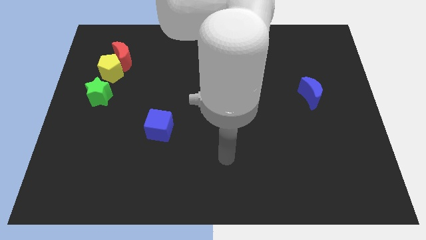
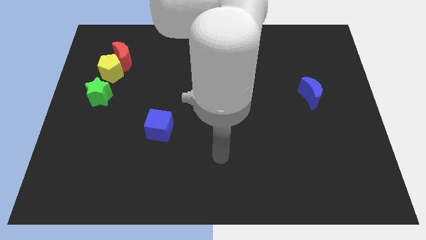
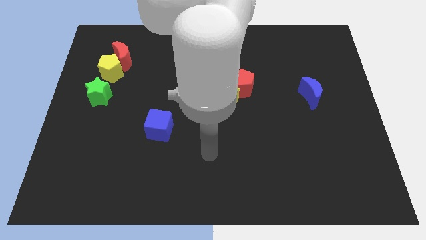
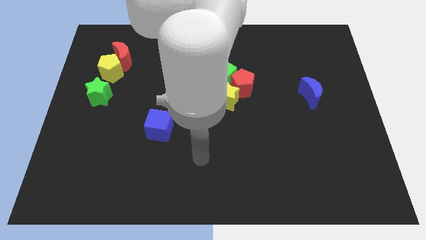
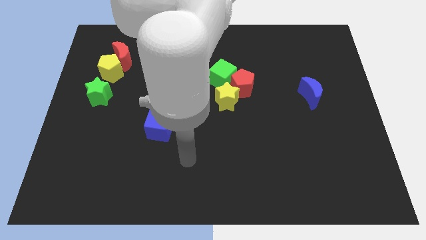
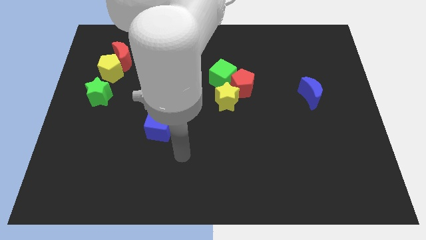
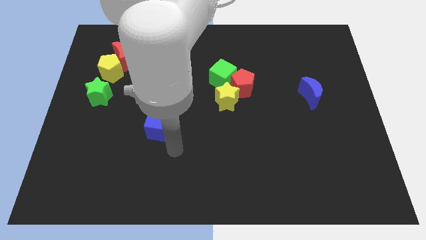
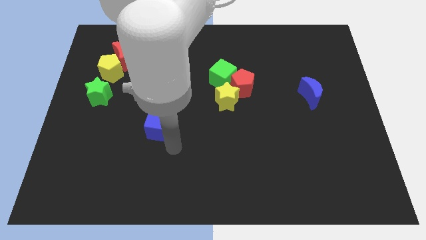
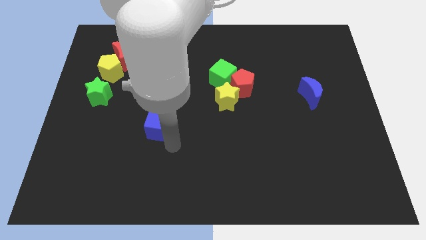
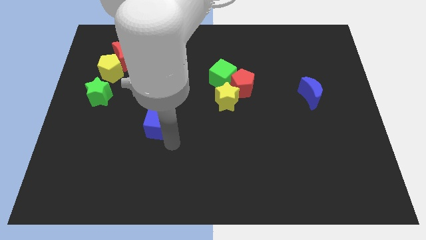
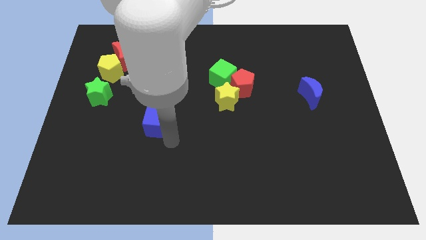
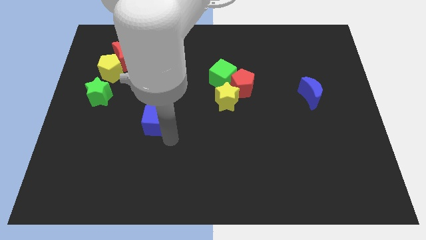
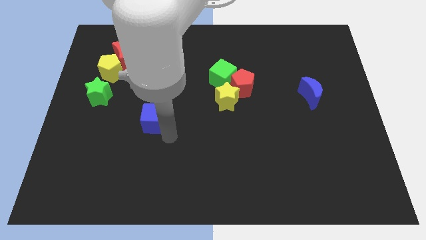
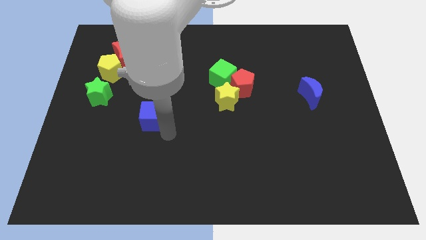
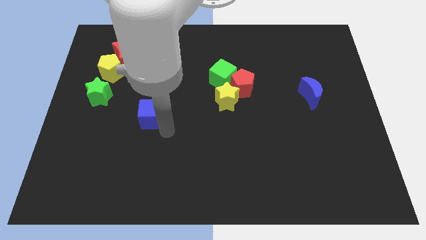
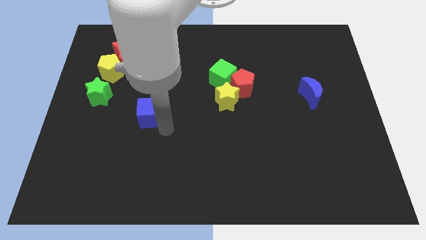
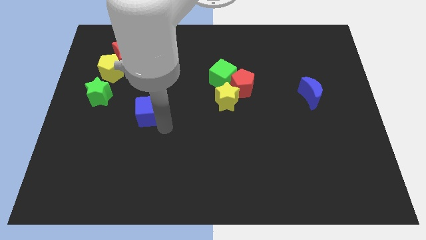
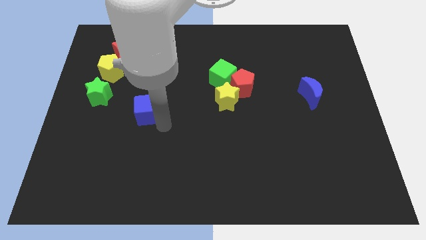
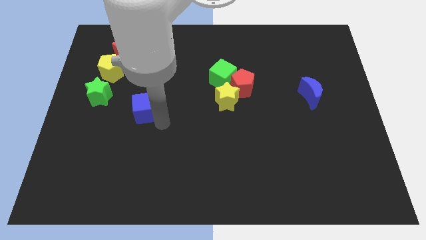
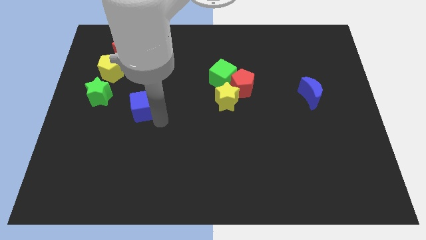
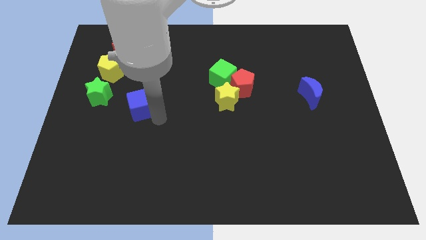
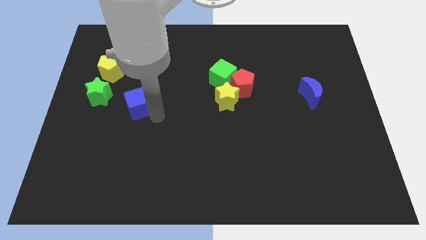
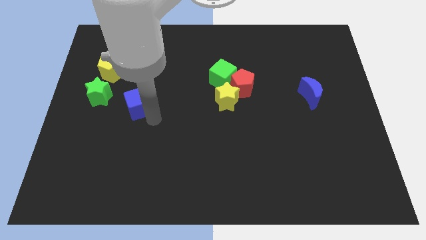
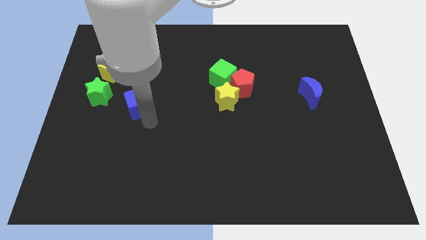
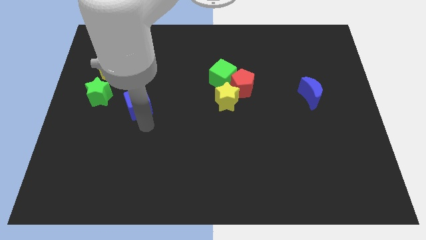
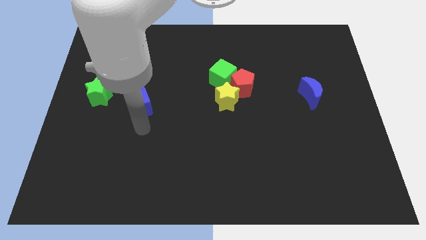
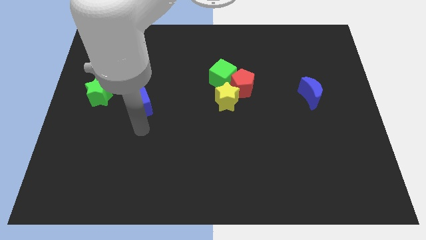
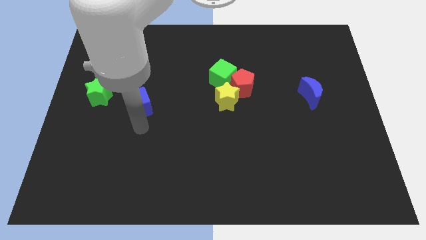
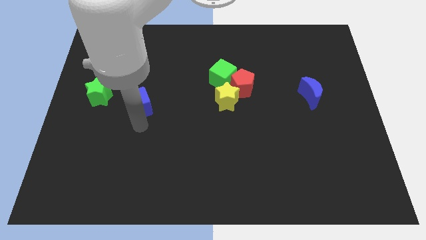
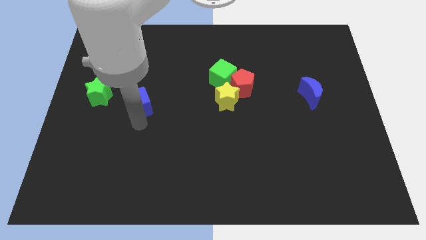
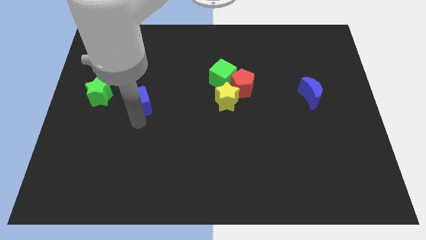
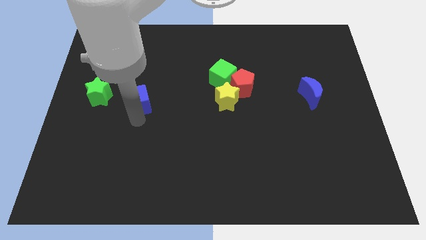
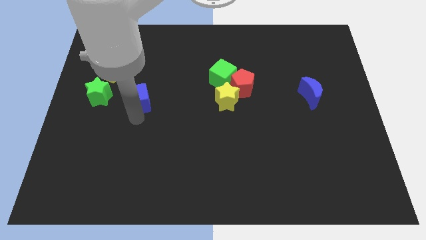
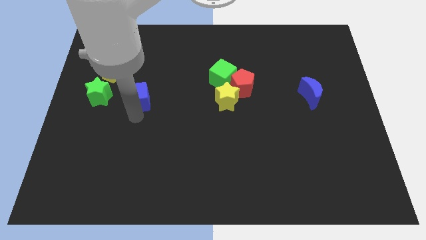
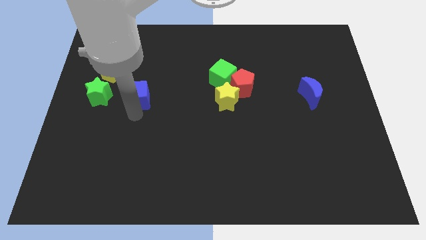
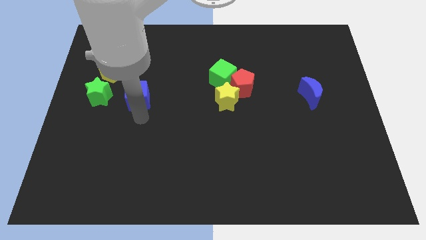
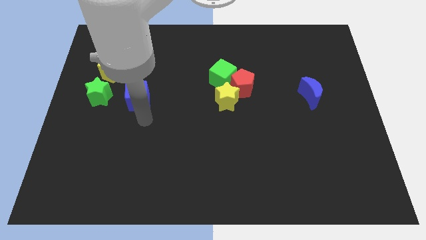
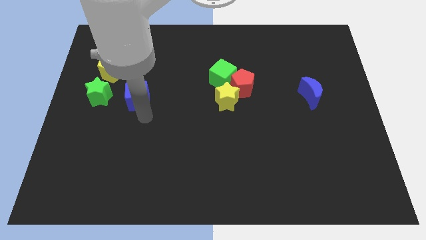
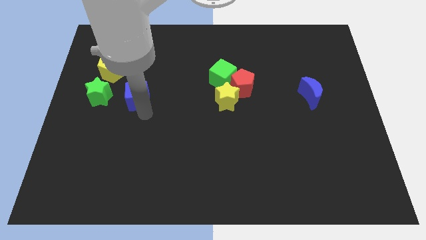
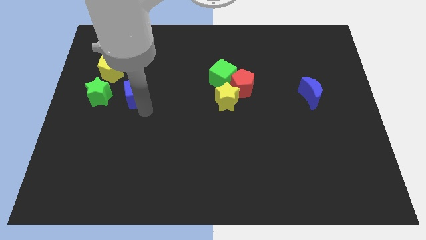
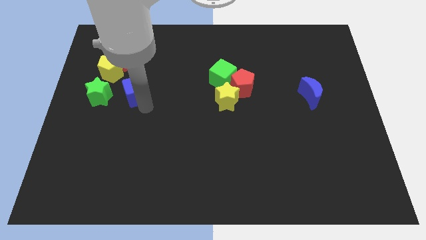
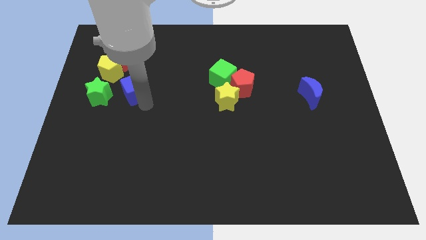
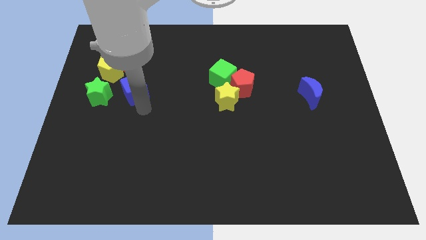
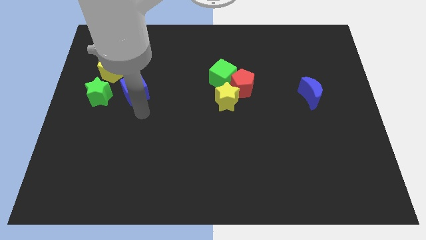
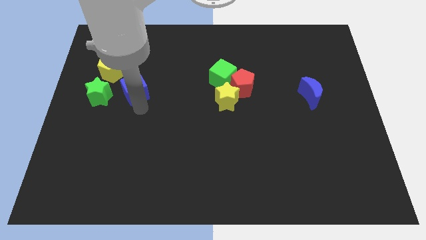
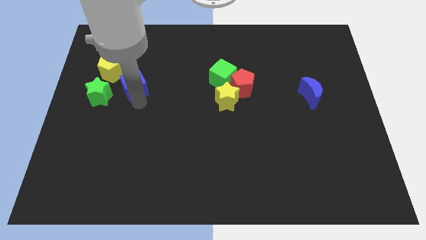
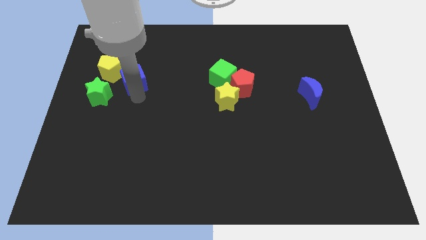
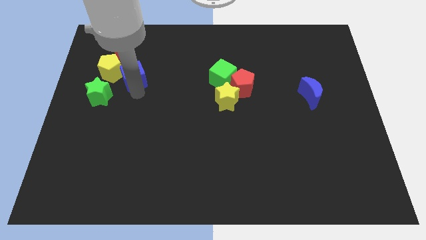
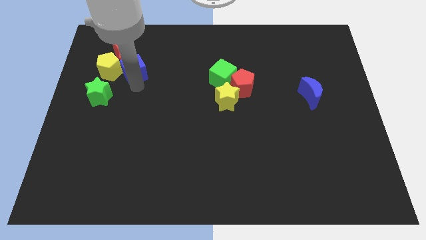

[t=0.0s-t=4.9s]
slide the blue cube to the red moon

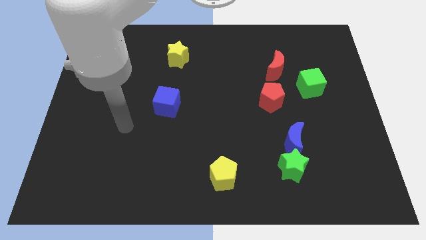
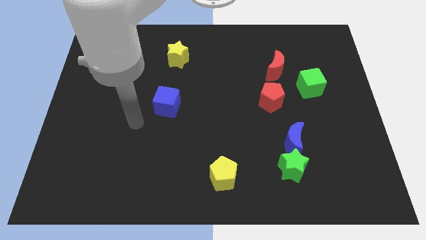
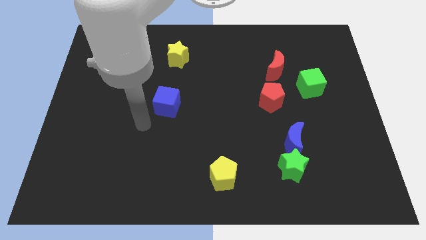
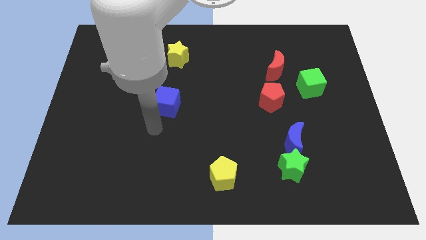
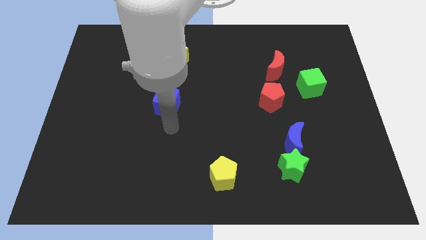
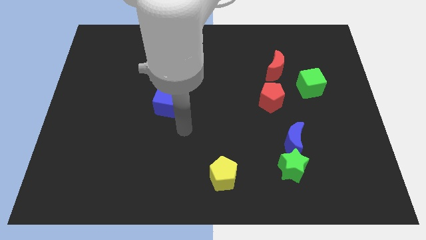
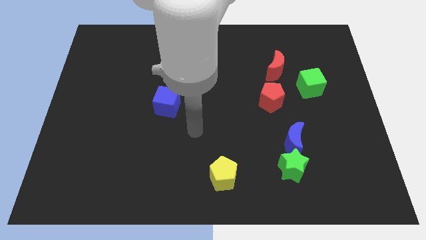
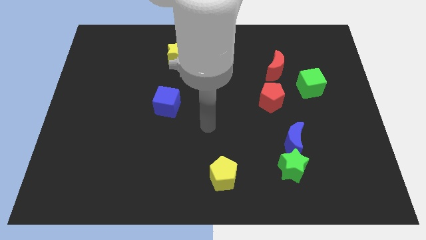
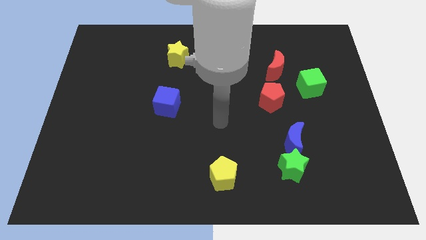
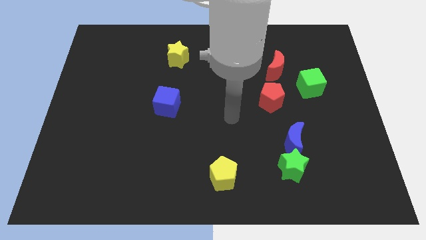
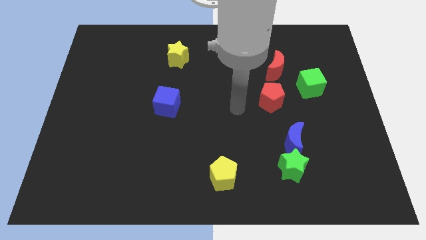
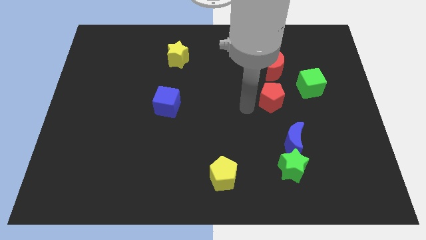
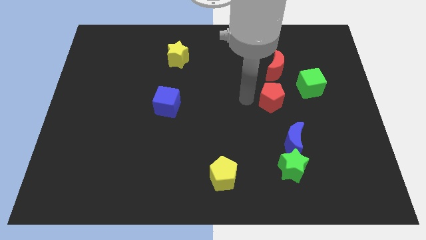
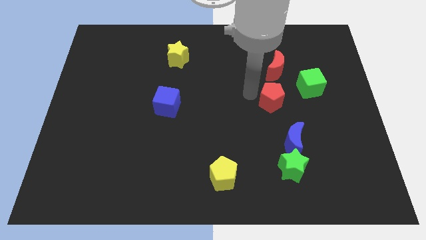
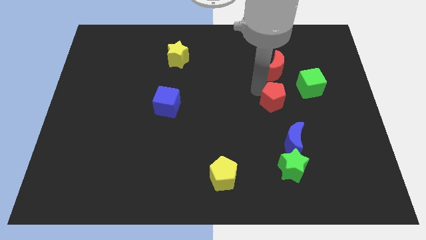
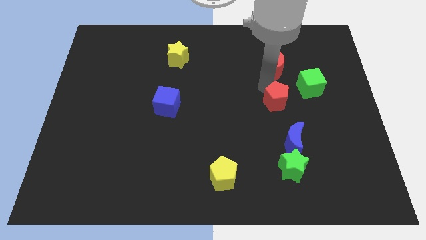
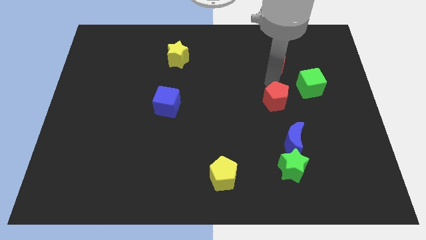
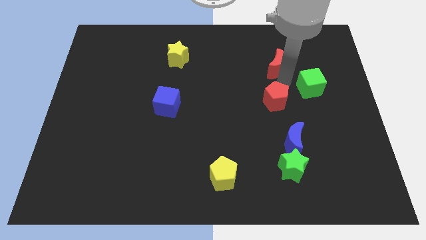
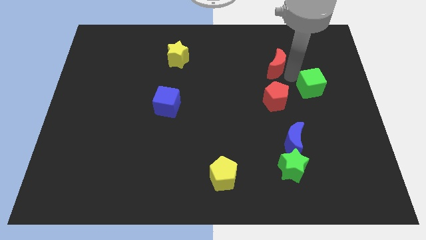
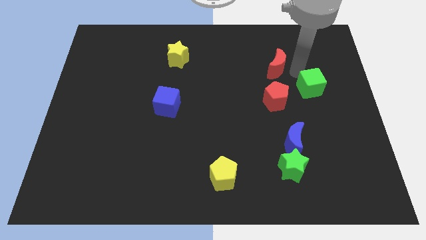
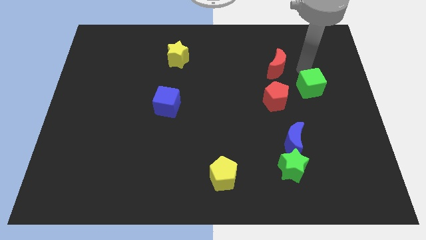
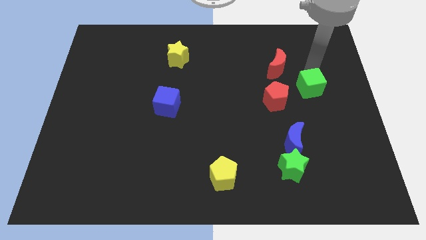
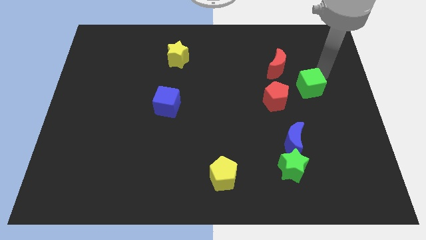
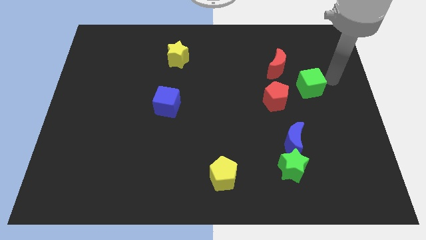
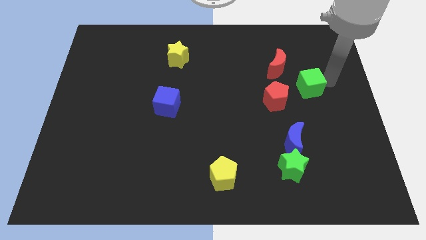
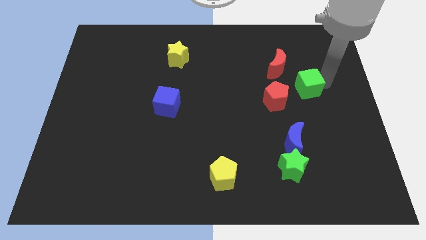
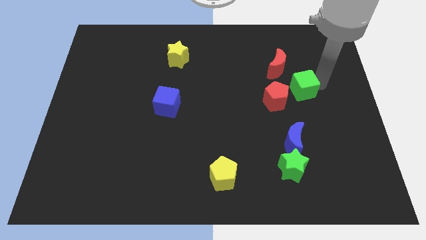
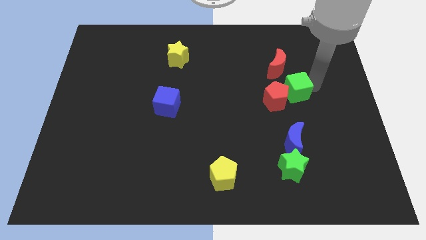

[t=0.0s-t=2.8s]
put the green cube close to the red pentagon
